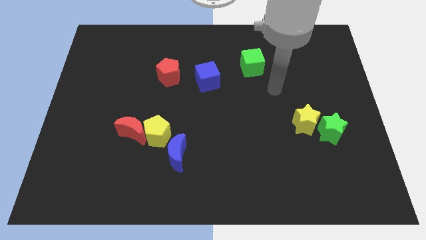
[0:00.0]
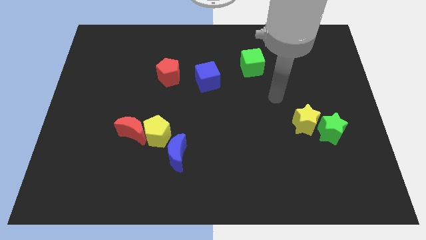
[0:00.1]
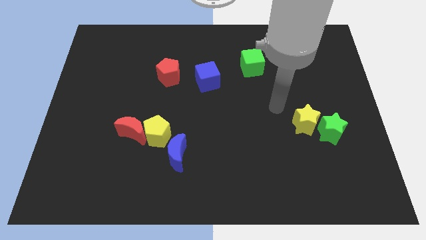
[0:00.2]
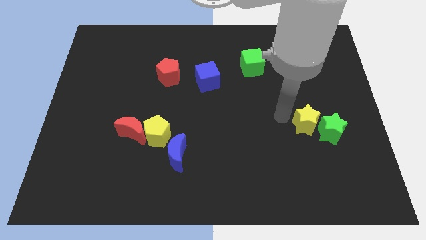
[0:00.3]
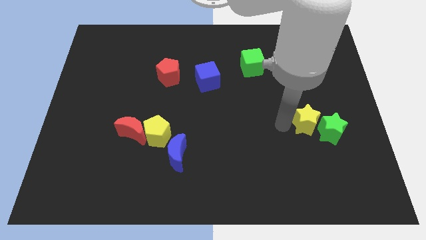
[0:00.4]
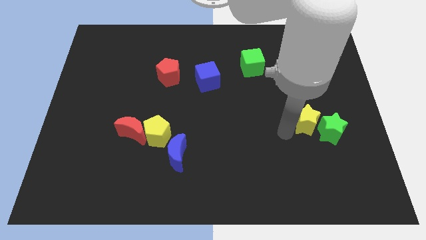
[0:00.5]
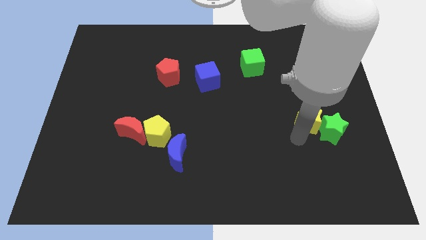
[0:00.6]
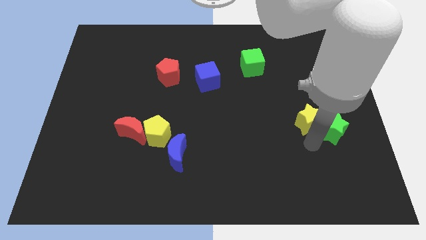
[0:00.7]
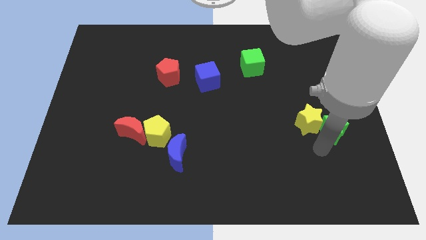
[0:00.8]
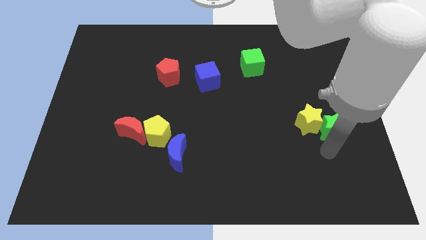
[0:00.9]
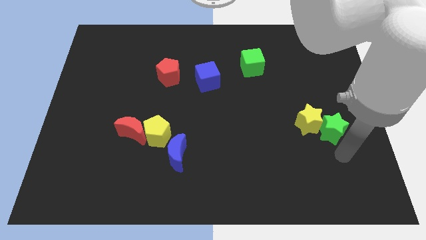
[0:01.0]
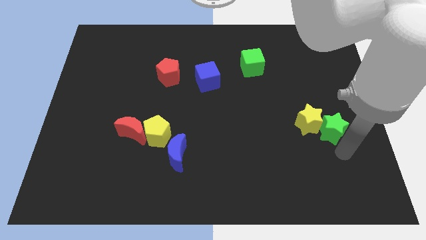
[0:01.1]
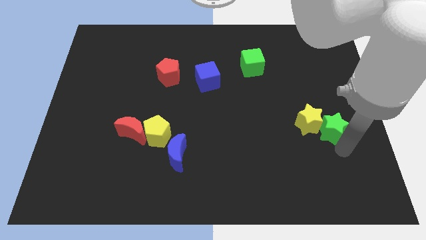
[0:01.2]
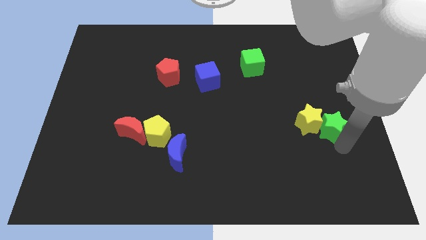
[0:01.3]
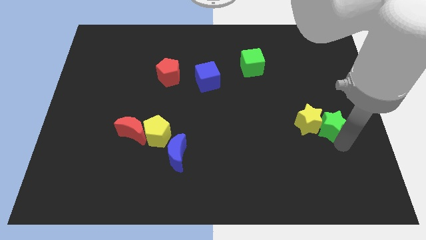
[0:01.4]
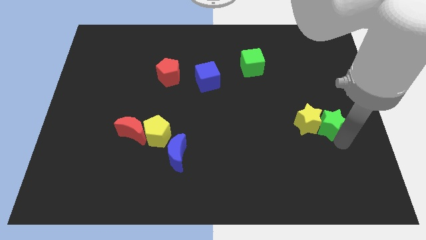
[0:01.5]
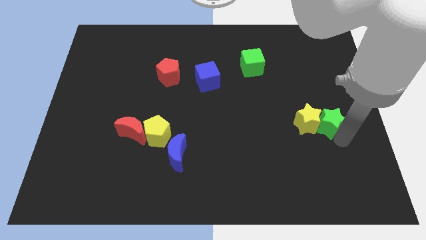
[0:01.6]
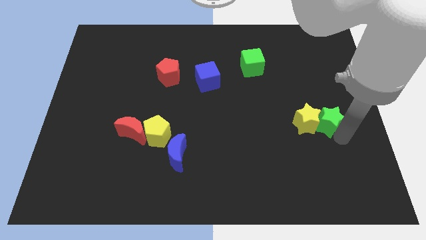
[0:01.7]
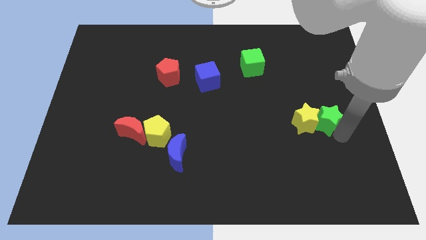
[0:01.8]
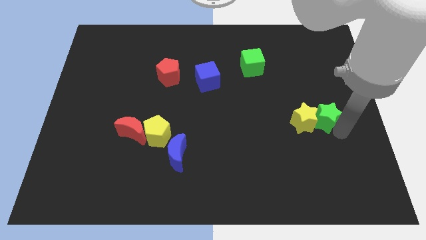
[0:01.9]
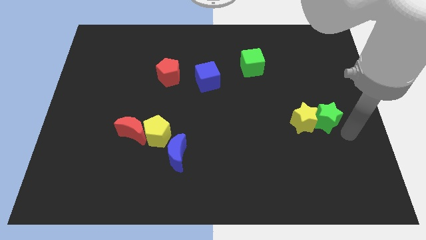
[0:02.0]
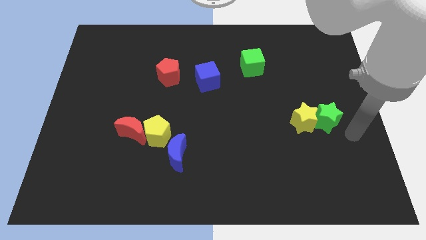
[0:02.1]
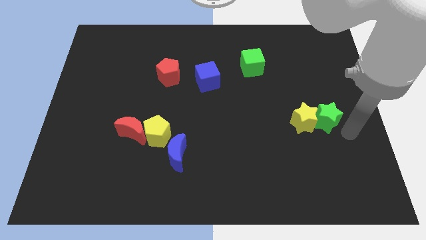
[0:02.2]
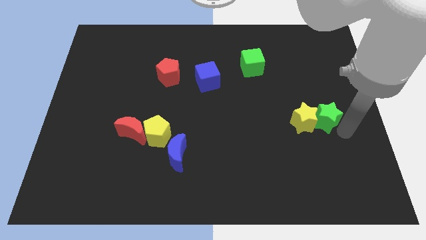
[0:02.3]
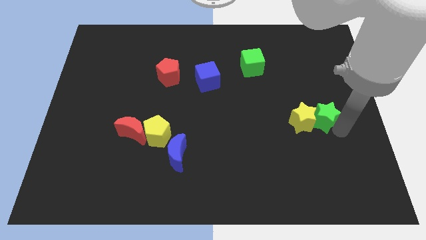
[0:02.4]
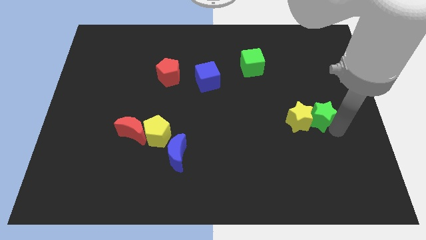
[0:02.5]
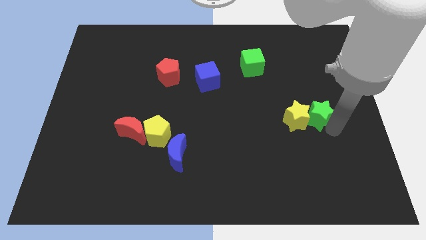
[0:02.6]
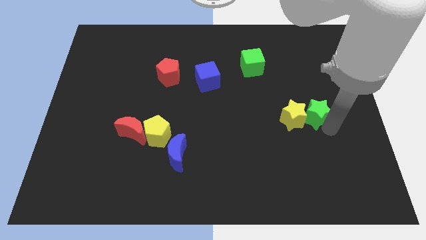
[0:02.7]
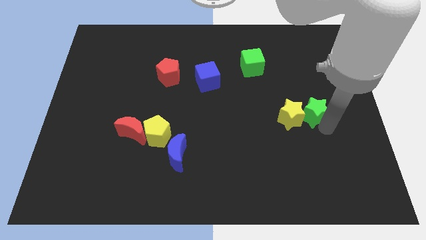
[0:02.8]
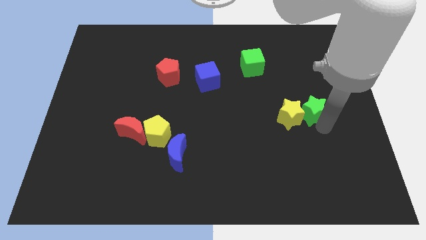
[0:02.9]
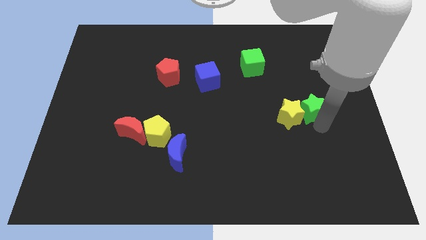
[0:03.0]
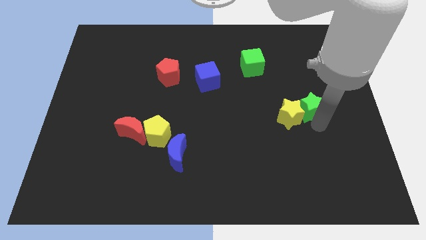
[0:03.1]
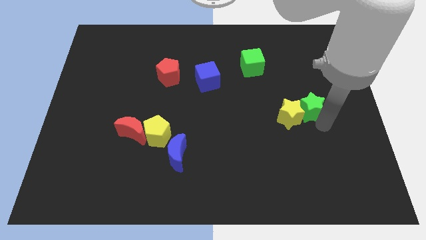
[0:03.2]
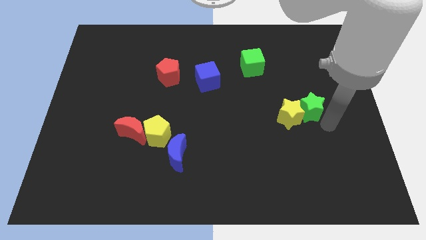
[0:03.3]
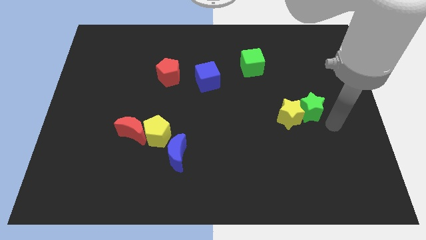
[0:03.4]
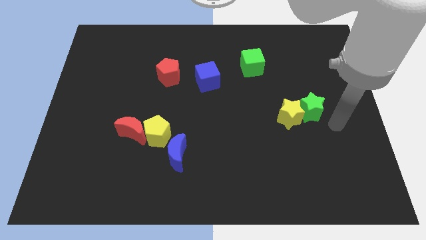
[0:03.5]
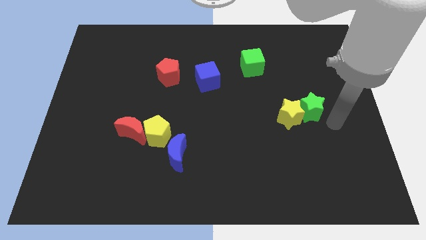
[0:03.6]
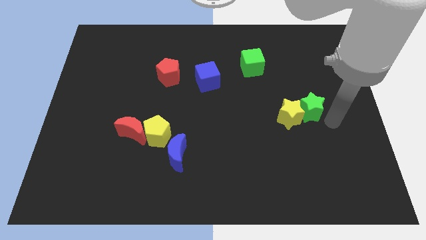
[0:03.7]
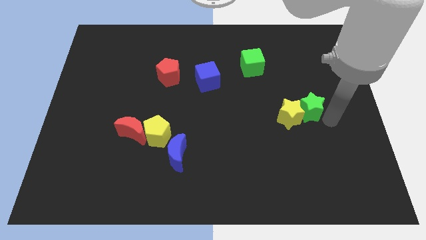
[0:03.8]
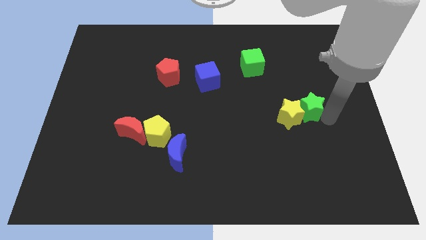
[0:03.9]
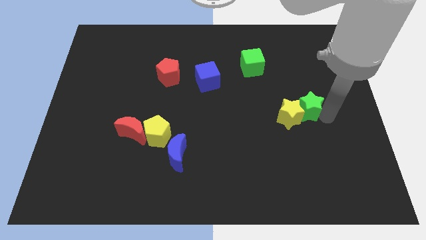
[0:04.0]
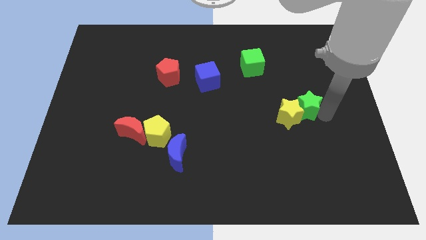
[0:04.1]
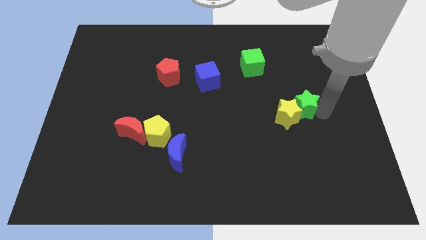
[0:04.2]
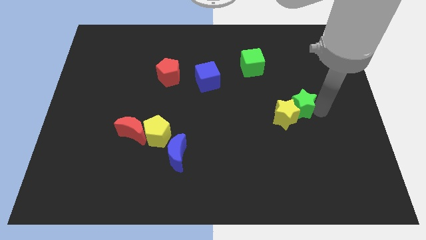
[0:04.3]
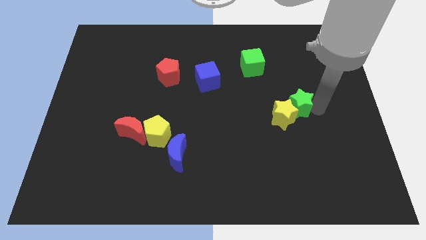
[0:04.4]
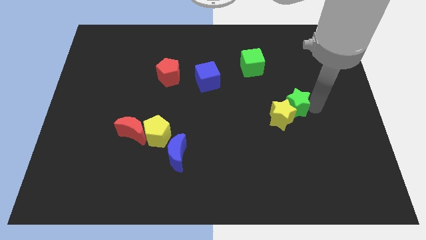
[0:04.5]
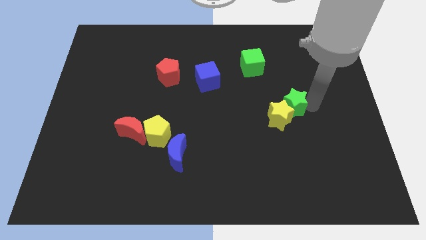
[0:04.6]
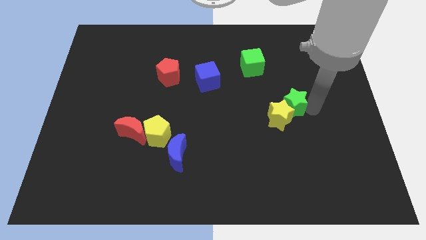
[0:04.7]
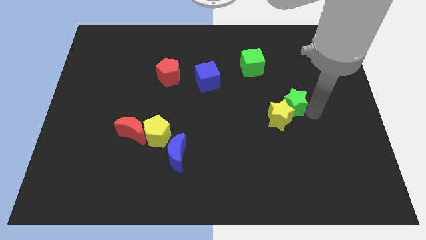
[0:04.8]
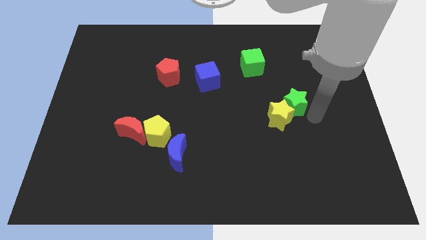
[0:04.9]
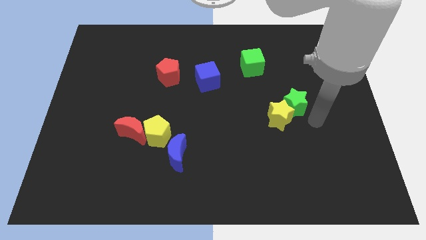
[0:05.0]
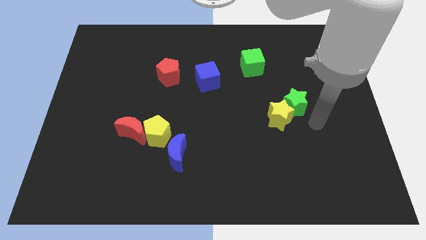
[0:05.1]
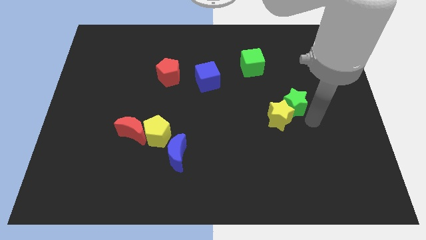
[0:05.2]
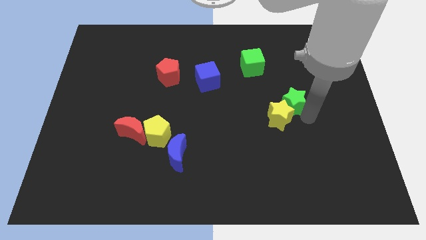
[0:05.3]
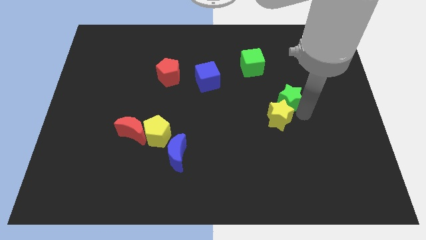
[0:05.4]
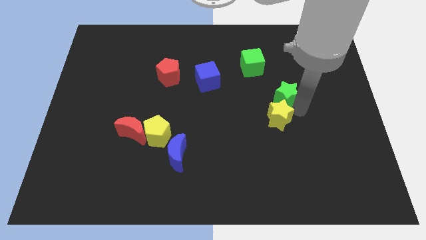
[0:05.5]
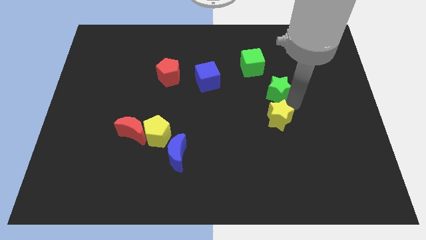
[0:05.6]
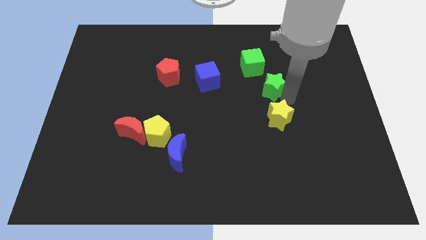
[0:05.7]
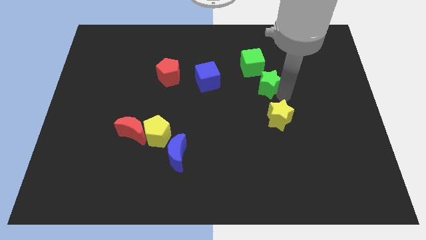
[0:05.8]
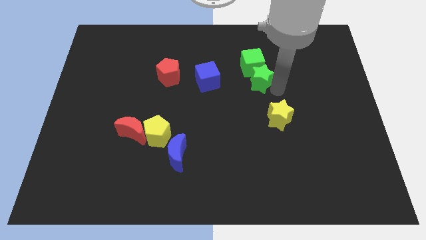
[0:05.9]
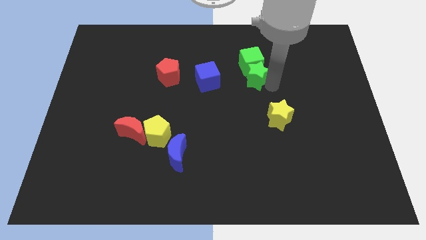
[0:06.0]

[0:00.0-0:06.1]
slide the green star to the bottom left of the green cube

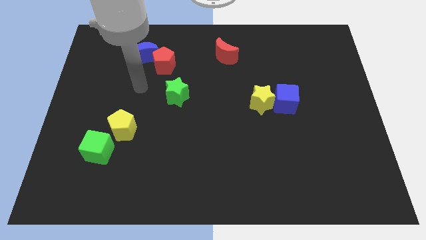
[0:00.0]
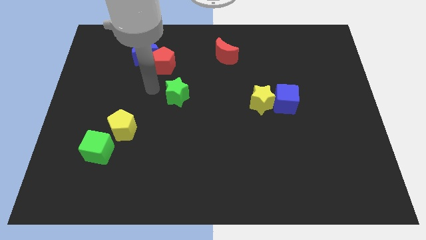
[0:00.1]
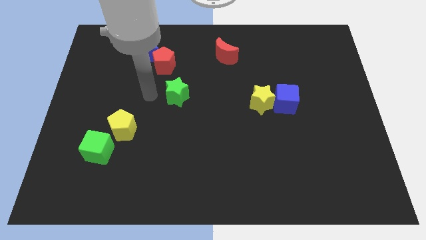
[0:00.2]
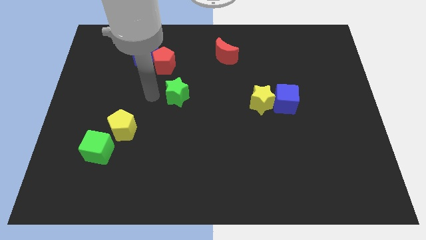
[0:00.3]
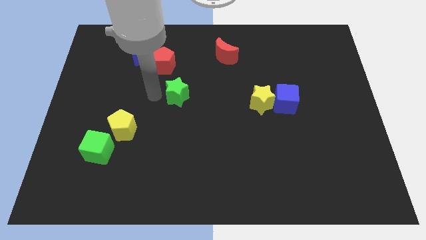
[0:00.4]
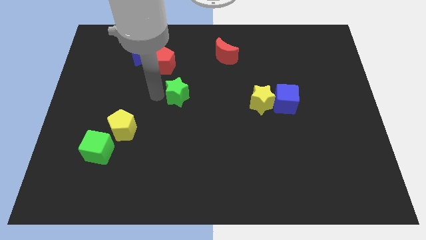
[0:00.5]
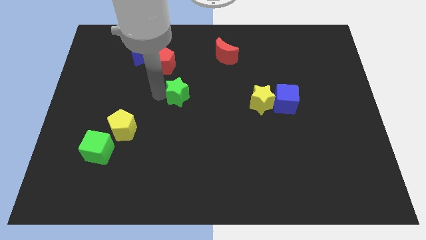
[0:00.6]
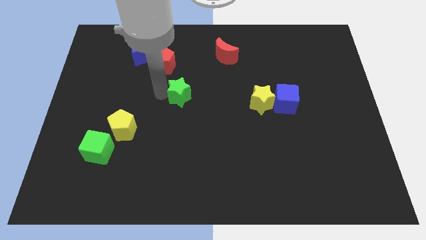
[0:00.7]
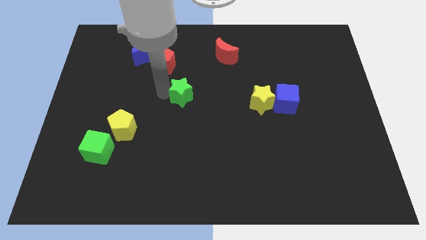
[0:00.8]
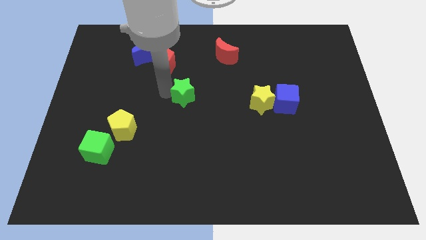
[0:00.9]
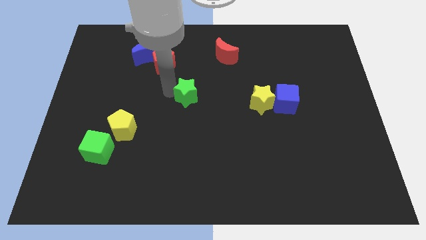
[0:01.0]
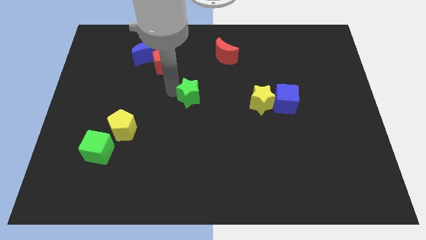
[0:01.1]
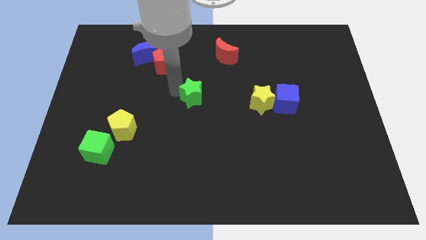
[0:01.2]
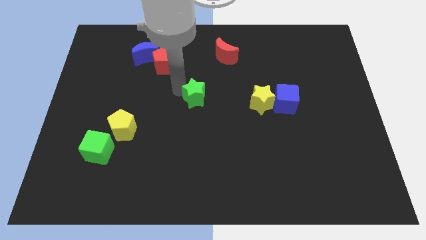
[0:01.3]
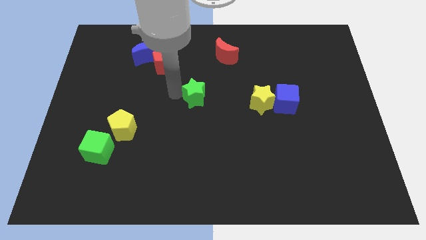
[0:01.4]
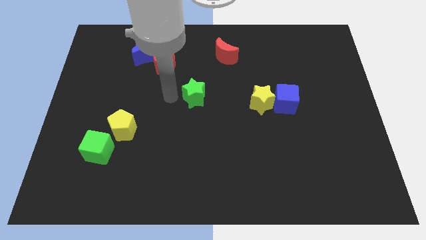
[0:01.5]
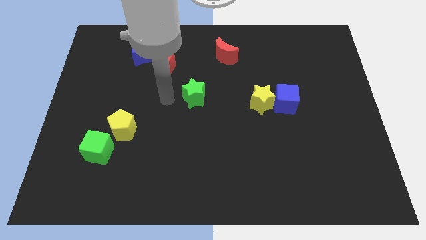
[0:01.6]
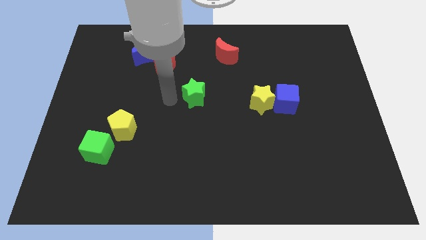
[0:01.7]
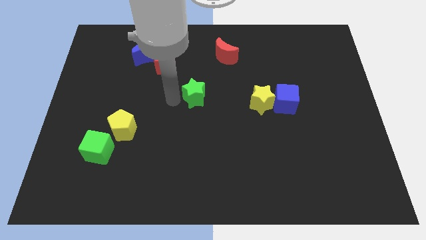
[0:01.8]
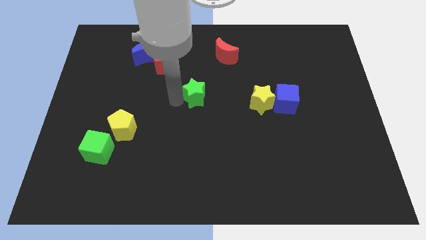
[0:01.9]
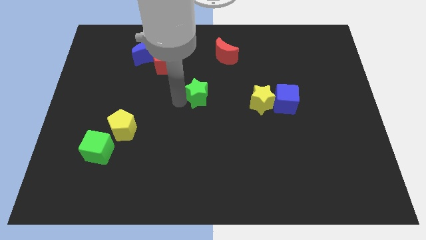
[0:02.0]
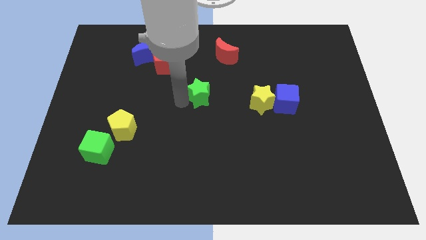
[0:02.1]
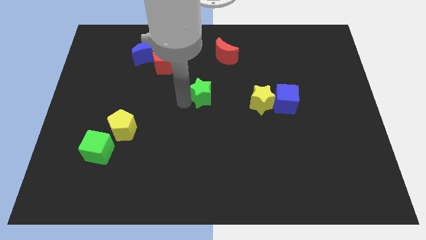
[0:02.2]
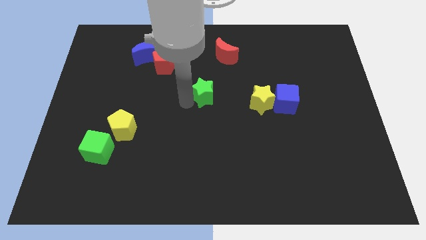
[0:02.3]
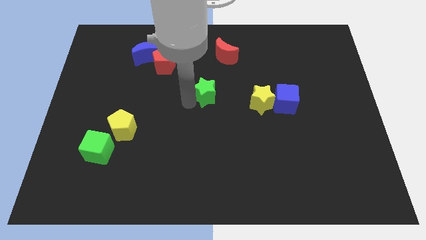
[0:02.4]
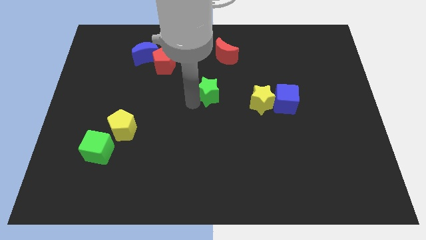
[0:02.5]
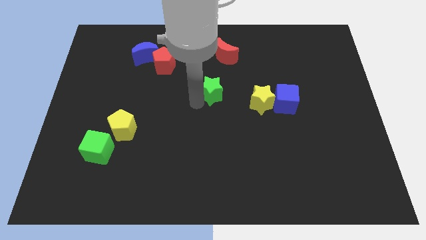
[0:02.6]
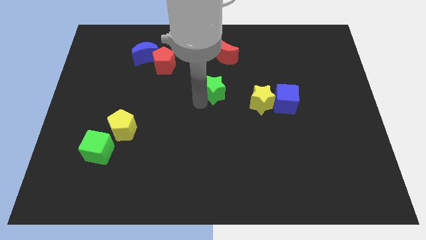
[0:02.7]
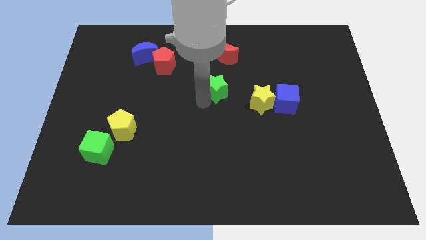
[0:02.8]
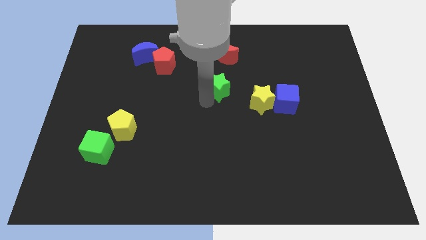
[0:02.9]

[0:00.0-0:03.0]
slide the green star to the top left of the yellow star
